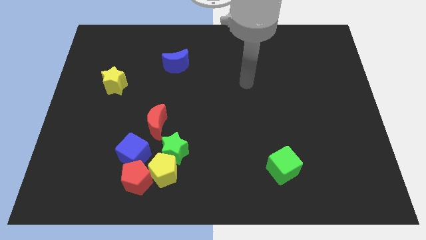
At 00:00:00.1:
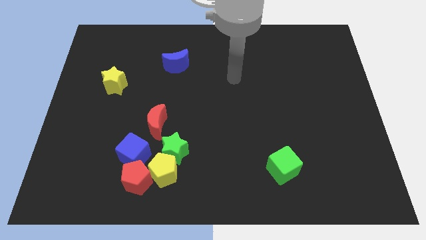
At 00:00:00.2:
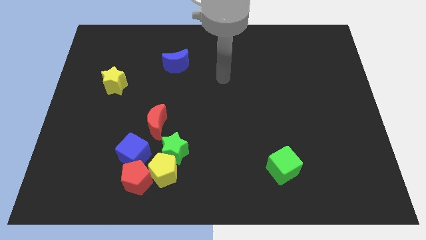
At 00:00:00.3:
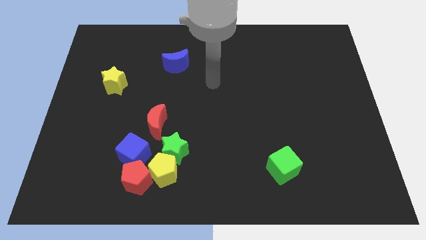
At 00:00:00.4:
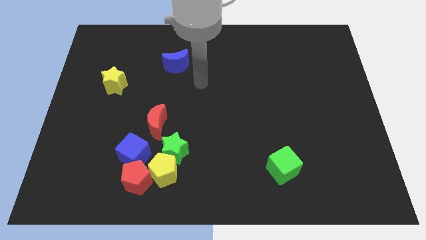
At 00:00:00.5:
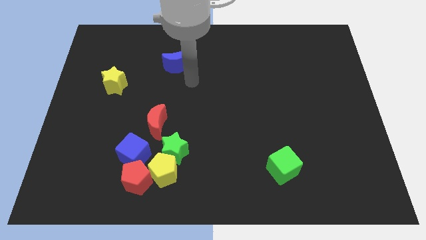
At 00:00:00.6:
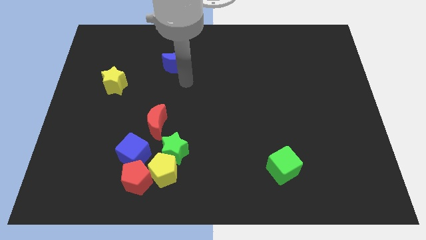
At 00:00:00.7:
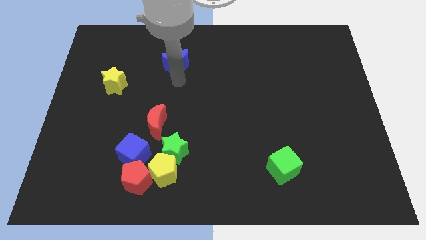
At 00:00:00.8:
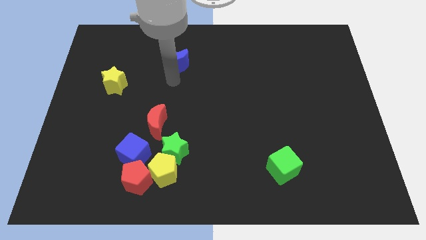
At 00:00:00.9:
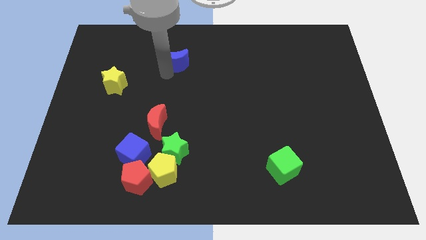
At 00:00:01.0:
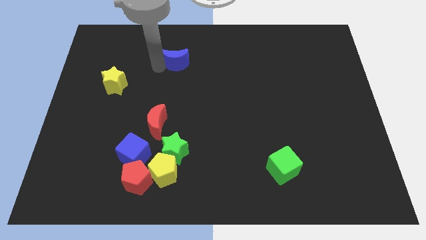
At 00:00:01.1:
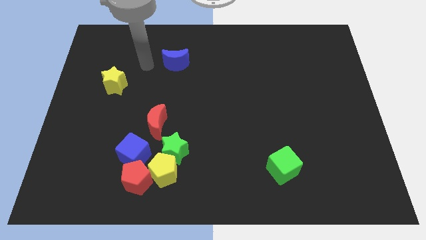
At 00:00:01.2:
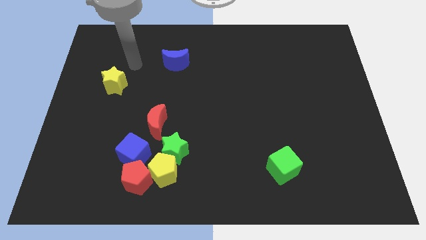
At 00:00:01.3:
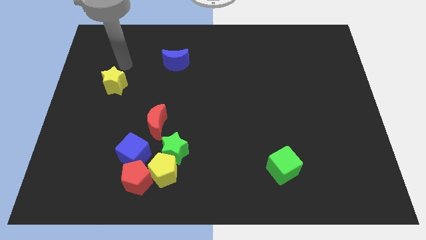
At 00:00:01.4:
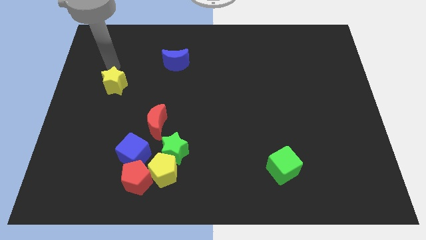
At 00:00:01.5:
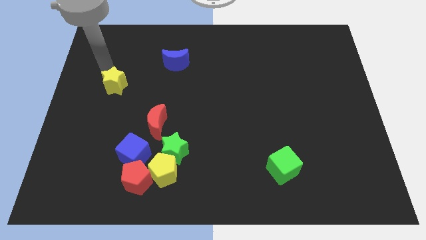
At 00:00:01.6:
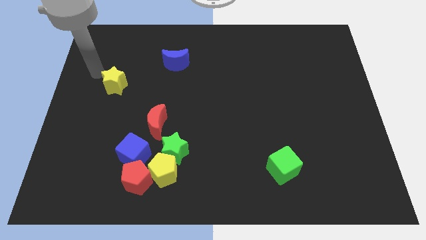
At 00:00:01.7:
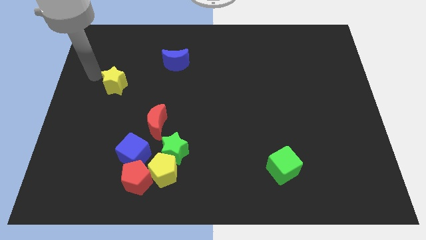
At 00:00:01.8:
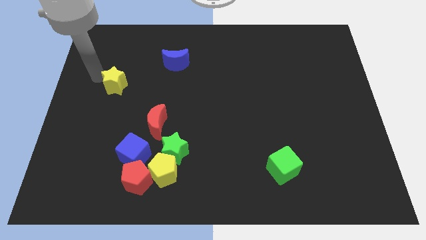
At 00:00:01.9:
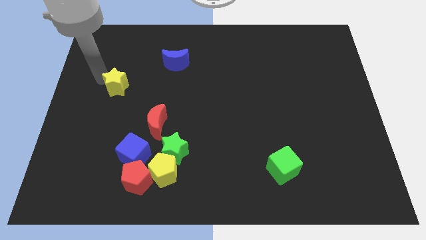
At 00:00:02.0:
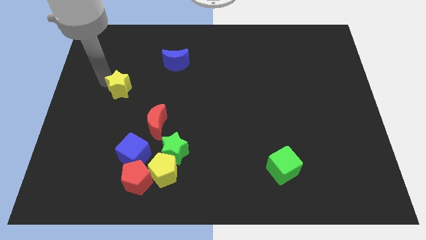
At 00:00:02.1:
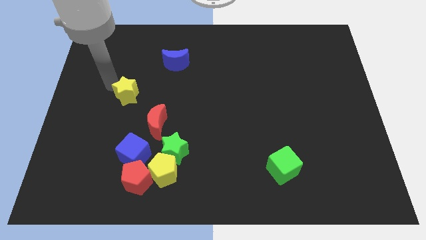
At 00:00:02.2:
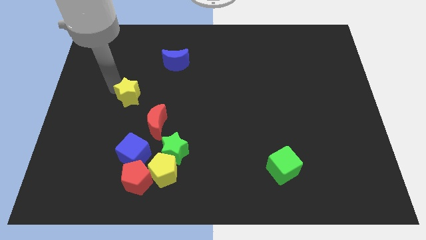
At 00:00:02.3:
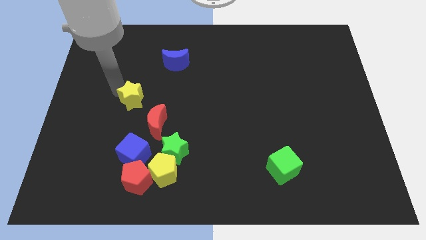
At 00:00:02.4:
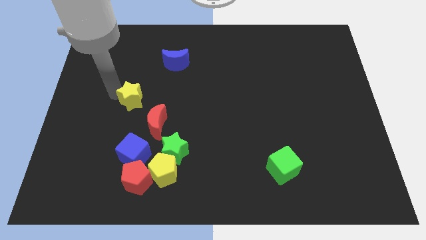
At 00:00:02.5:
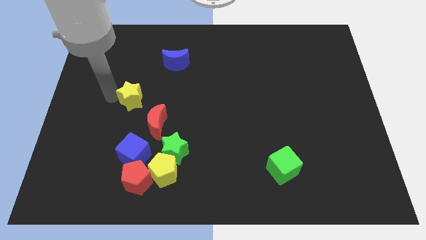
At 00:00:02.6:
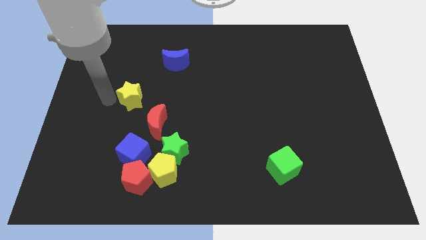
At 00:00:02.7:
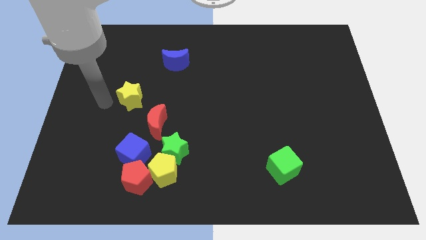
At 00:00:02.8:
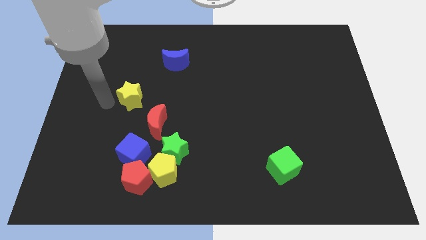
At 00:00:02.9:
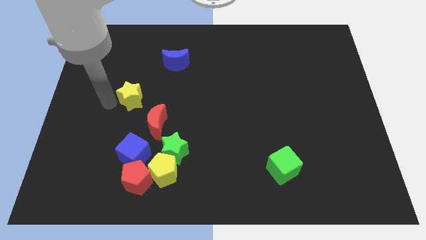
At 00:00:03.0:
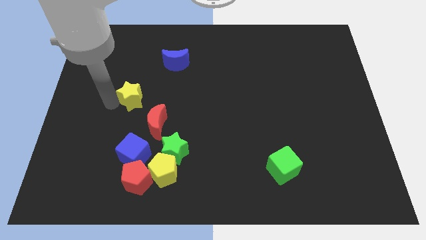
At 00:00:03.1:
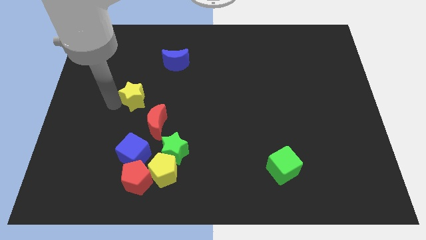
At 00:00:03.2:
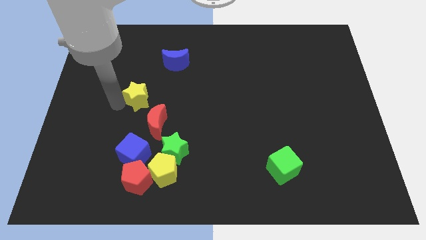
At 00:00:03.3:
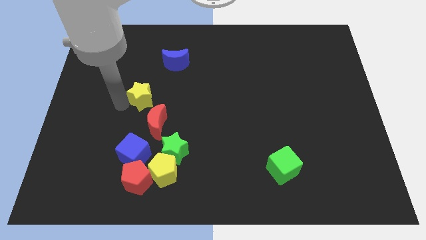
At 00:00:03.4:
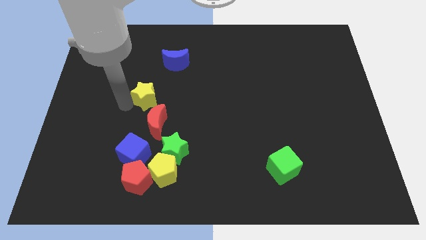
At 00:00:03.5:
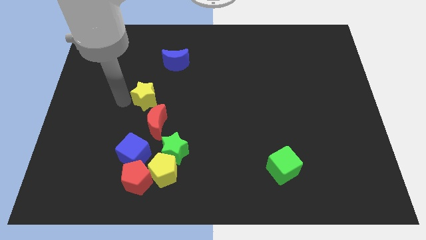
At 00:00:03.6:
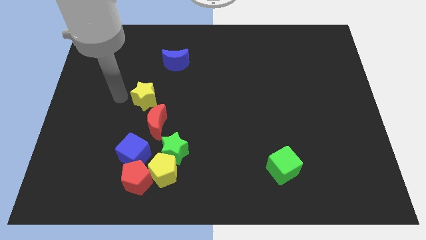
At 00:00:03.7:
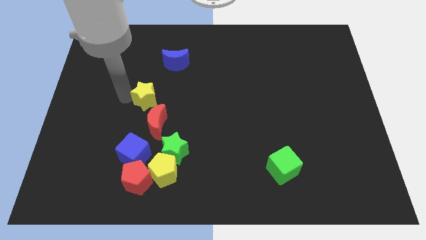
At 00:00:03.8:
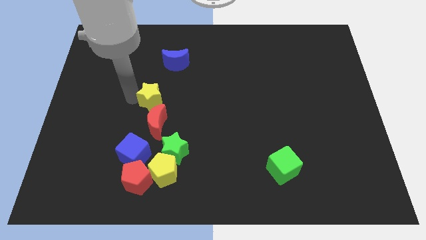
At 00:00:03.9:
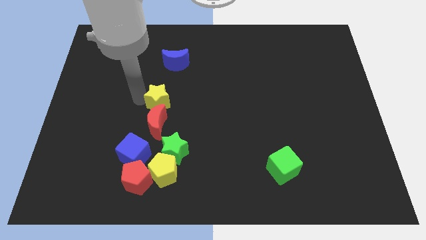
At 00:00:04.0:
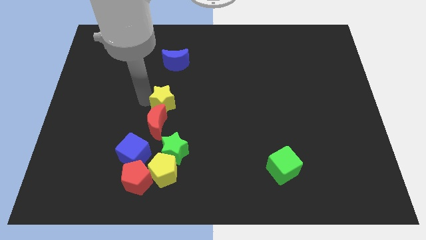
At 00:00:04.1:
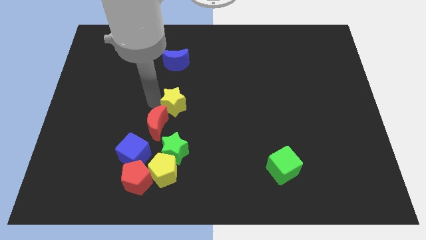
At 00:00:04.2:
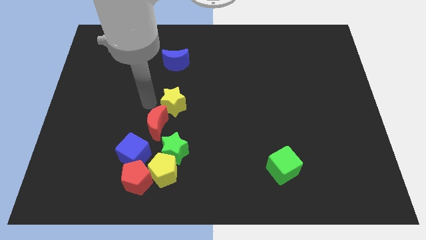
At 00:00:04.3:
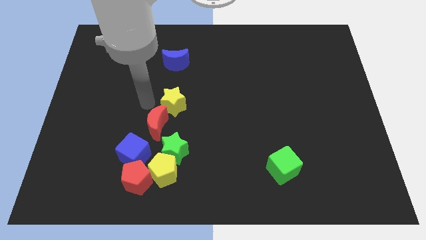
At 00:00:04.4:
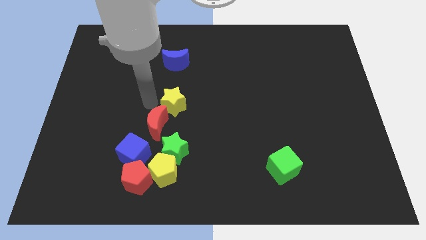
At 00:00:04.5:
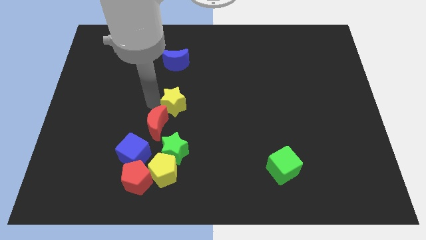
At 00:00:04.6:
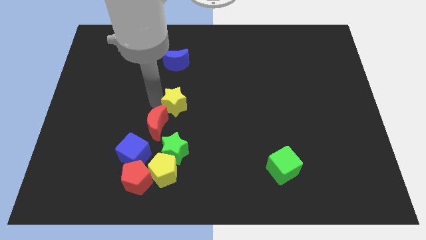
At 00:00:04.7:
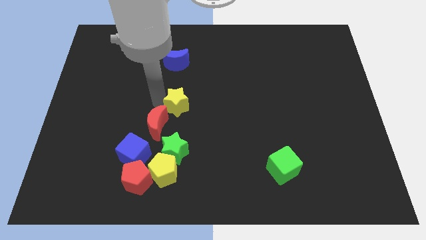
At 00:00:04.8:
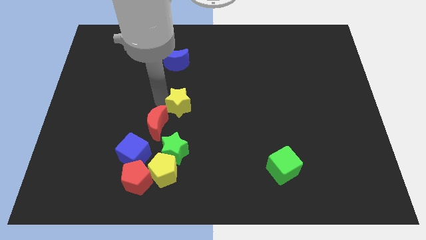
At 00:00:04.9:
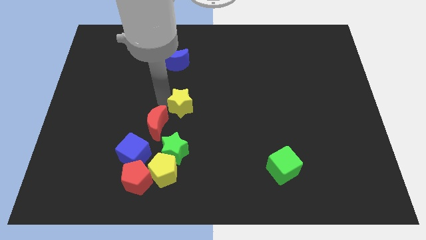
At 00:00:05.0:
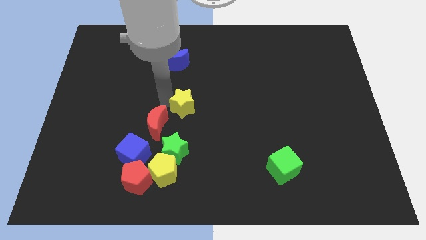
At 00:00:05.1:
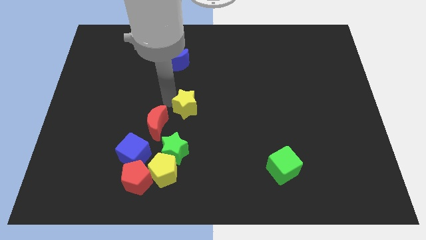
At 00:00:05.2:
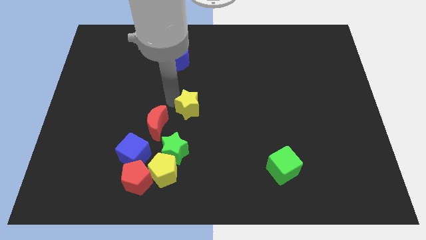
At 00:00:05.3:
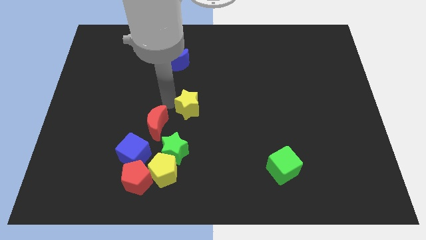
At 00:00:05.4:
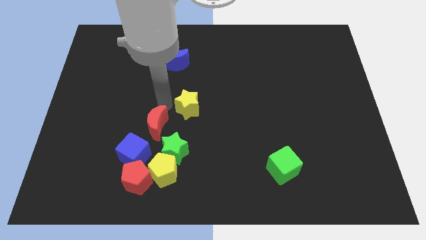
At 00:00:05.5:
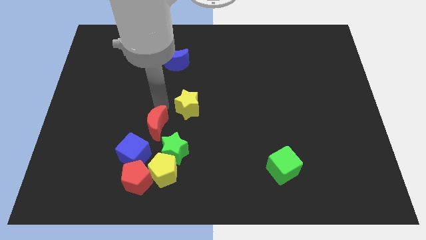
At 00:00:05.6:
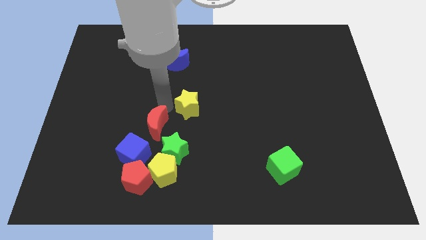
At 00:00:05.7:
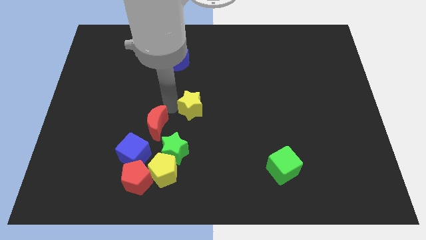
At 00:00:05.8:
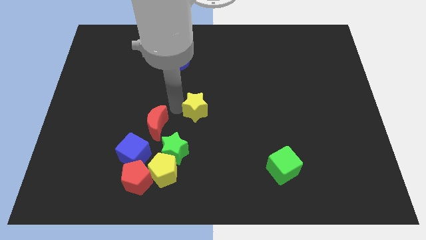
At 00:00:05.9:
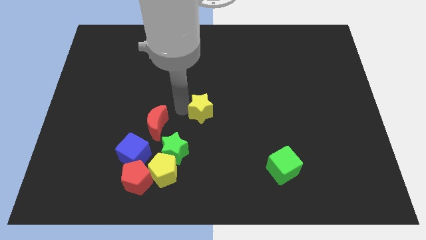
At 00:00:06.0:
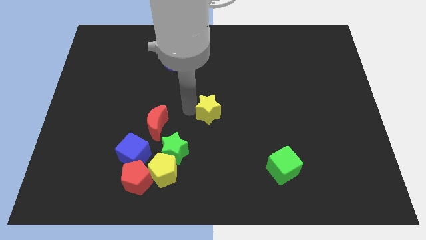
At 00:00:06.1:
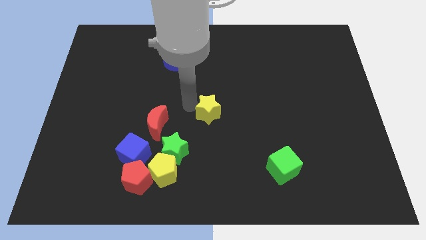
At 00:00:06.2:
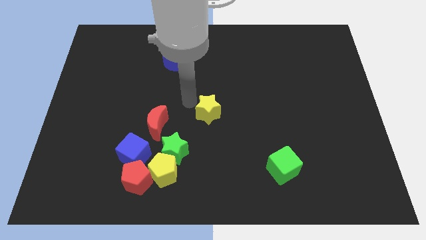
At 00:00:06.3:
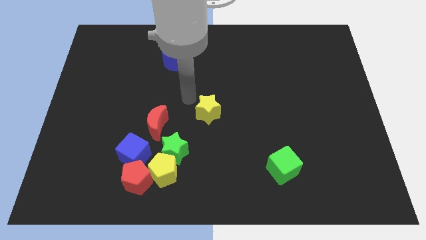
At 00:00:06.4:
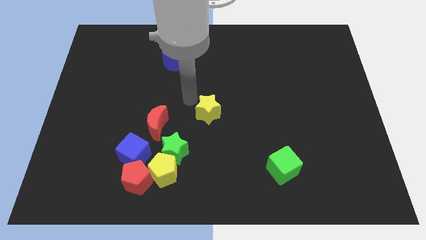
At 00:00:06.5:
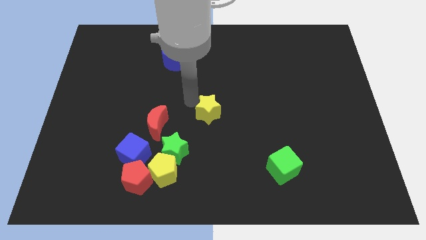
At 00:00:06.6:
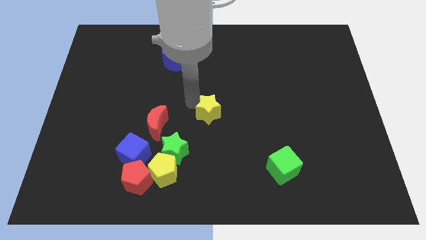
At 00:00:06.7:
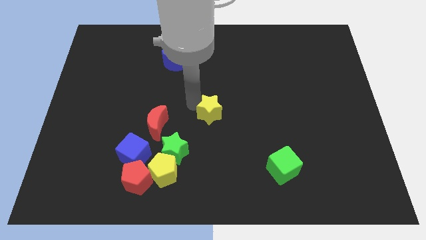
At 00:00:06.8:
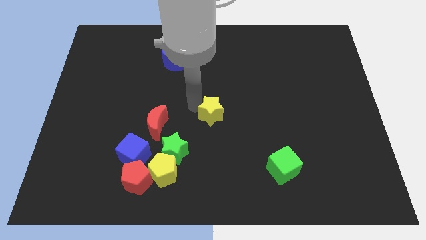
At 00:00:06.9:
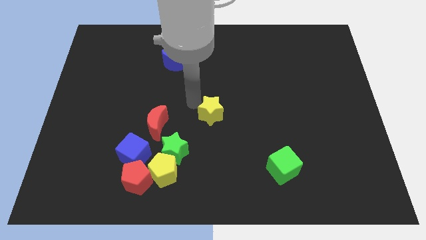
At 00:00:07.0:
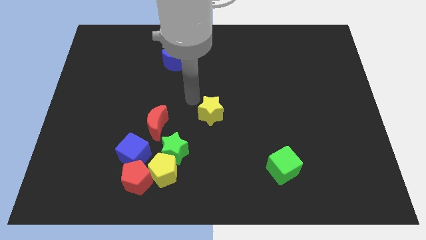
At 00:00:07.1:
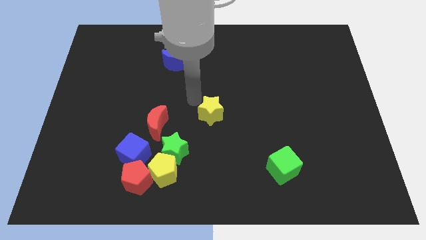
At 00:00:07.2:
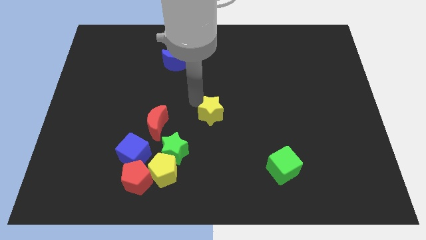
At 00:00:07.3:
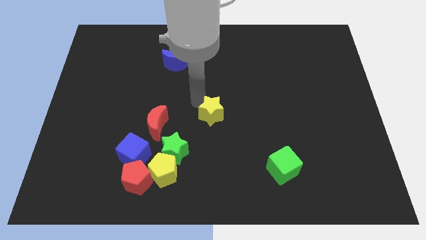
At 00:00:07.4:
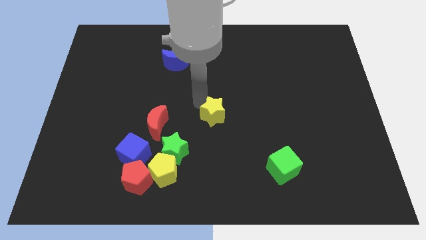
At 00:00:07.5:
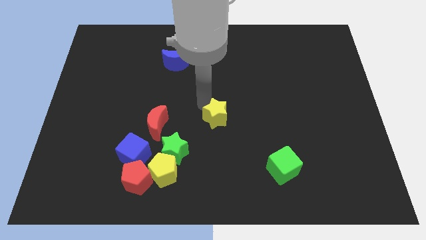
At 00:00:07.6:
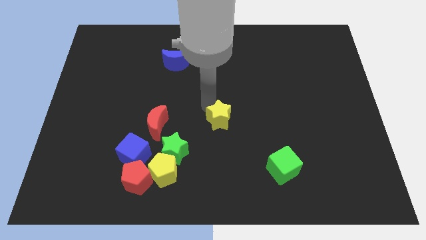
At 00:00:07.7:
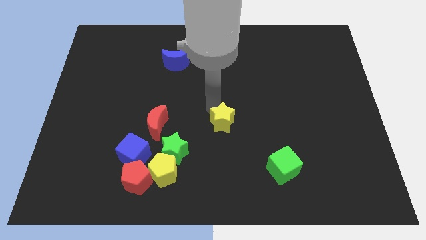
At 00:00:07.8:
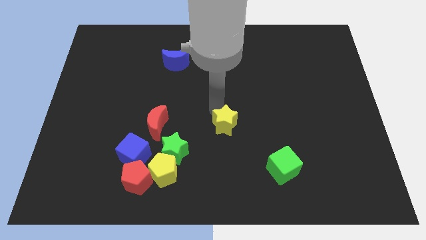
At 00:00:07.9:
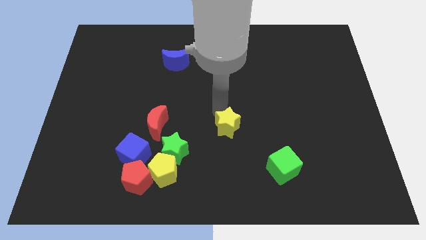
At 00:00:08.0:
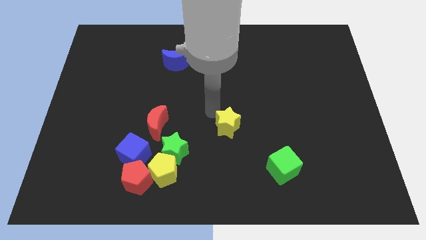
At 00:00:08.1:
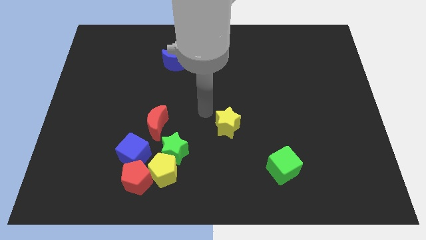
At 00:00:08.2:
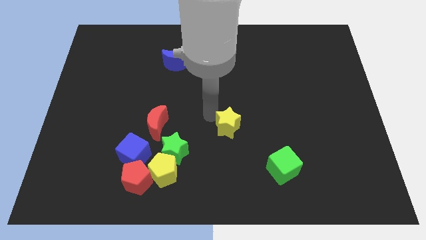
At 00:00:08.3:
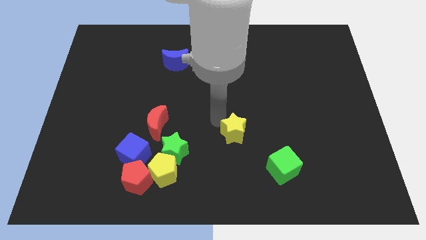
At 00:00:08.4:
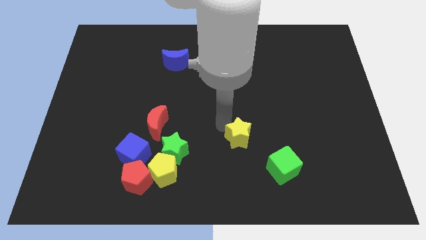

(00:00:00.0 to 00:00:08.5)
move the yellow star to the top left of the green cube
